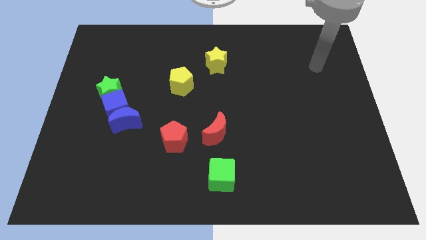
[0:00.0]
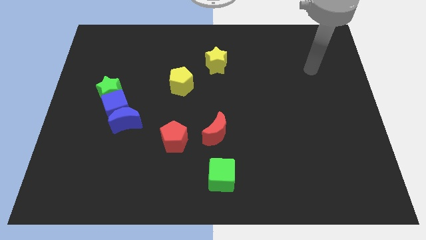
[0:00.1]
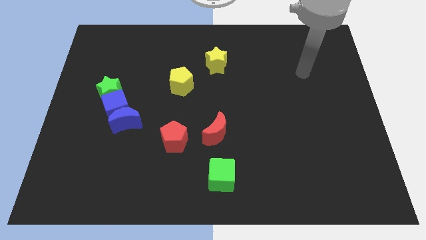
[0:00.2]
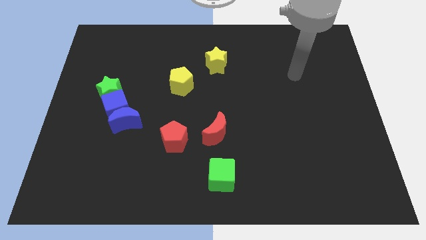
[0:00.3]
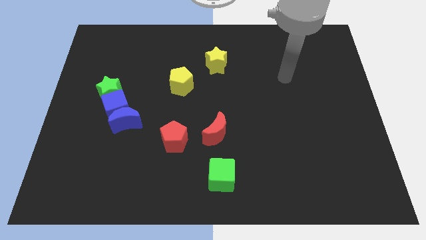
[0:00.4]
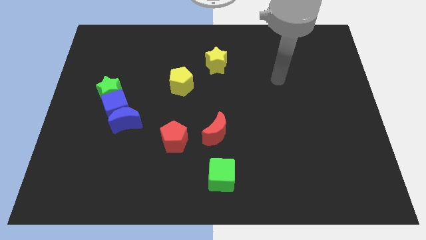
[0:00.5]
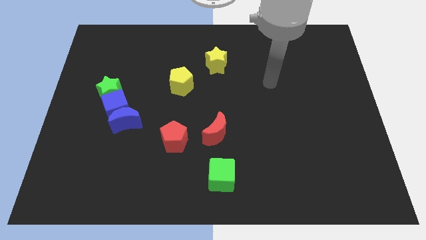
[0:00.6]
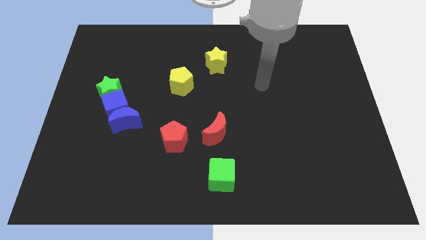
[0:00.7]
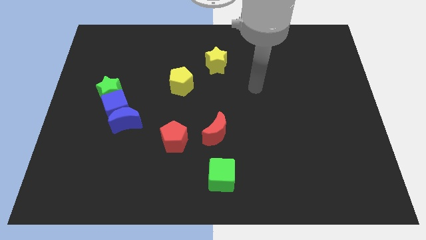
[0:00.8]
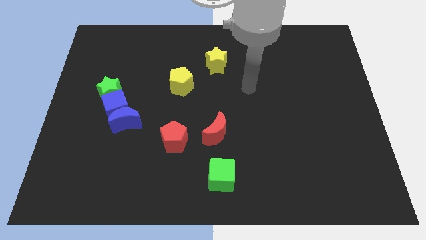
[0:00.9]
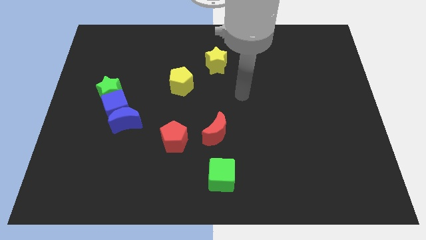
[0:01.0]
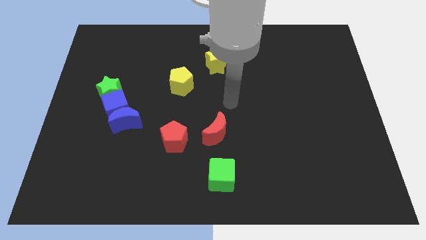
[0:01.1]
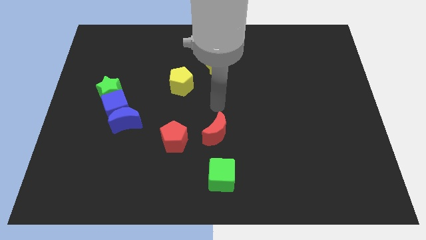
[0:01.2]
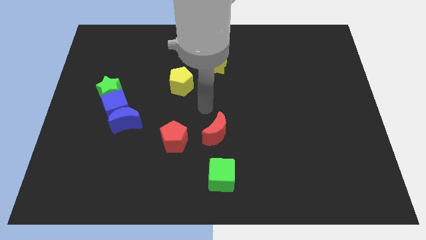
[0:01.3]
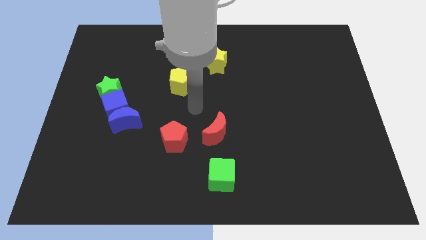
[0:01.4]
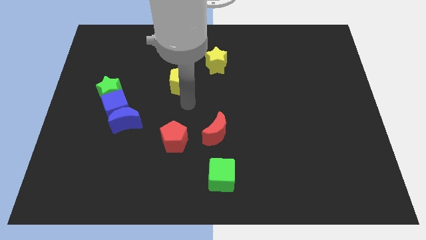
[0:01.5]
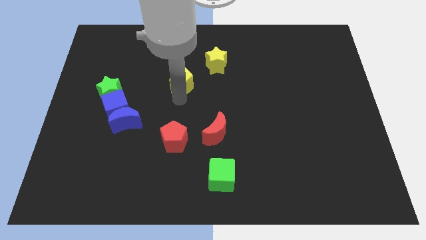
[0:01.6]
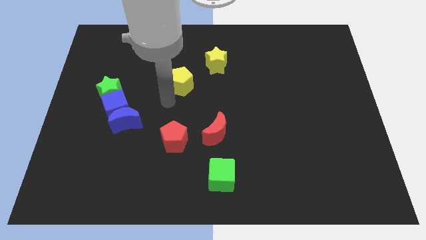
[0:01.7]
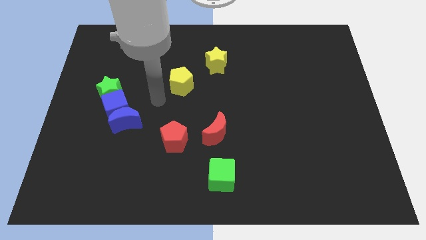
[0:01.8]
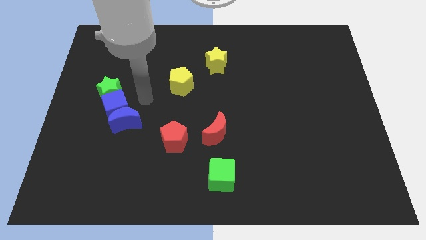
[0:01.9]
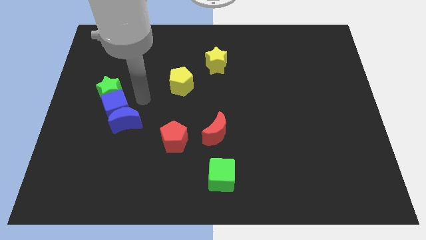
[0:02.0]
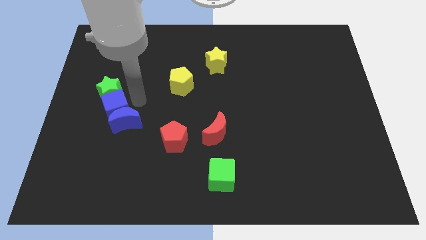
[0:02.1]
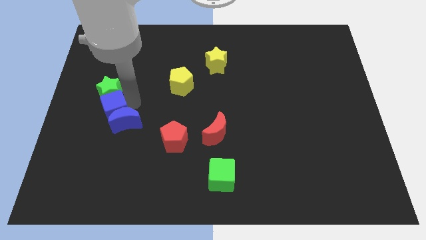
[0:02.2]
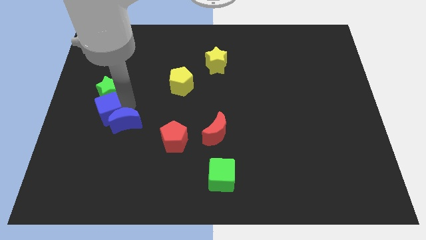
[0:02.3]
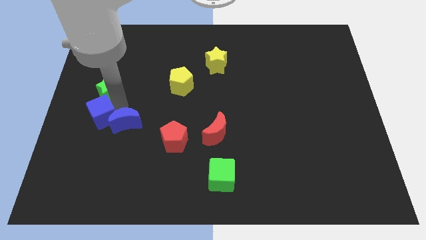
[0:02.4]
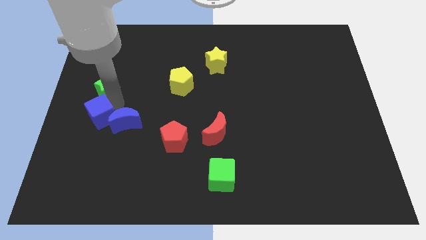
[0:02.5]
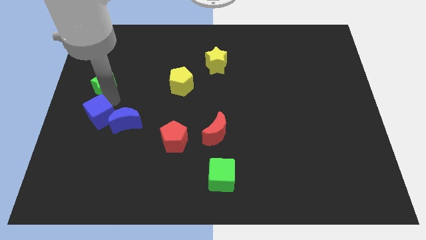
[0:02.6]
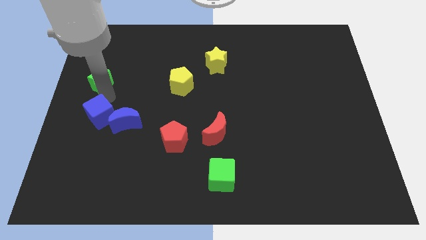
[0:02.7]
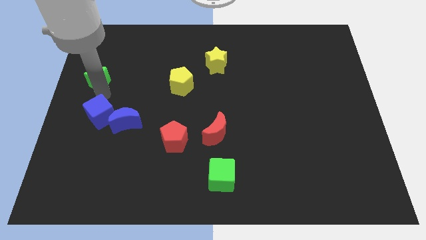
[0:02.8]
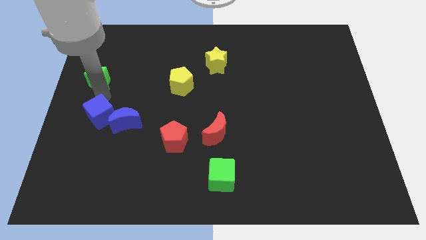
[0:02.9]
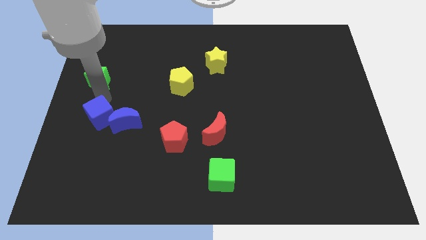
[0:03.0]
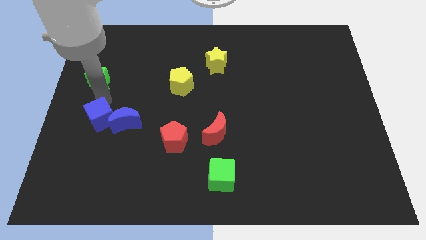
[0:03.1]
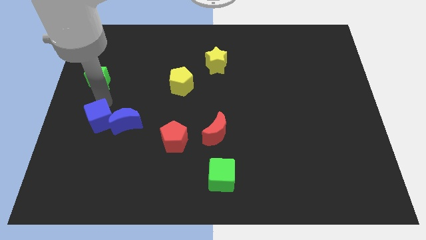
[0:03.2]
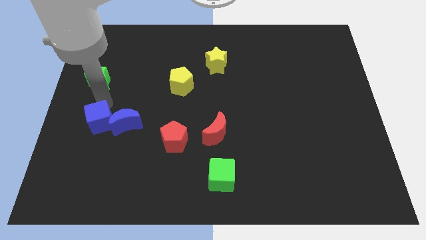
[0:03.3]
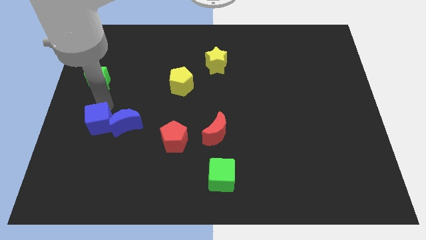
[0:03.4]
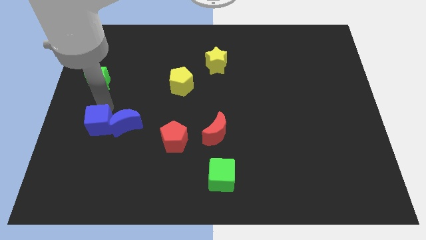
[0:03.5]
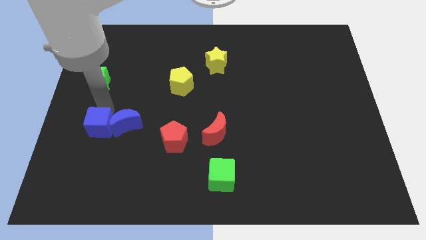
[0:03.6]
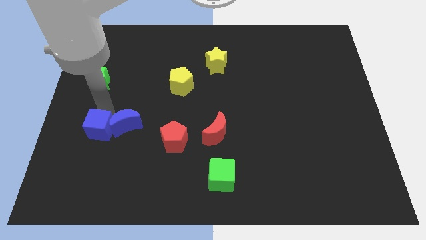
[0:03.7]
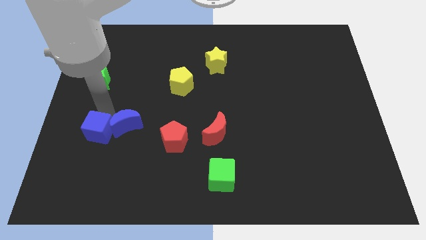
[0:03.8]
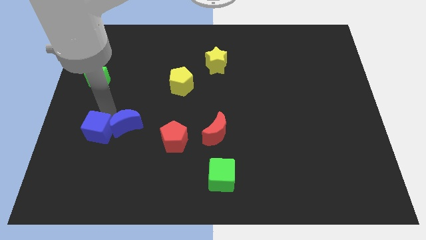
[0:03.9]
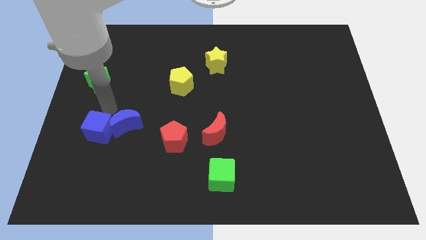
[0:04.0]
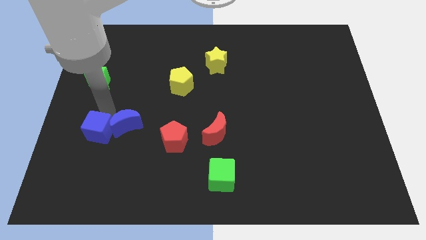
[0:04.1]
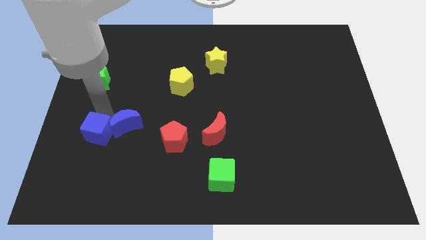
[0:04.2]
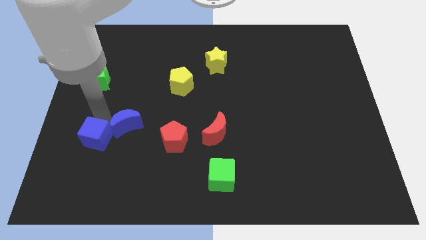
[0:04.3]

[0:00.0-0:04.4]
pull the blue cube apart from the blue moon and green star

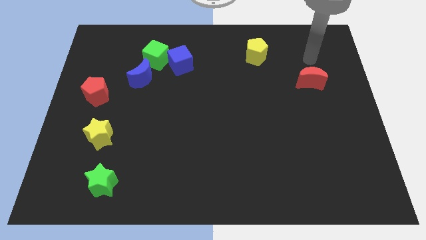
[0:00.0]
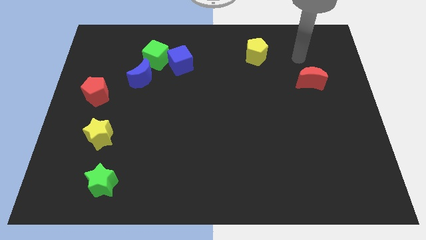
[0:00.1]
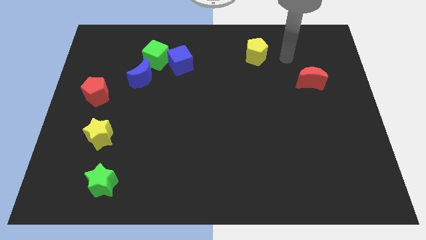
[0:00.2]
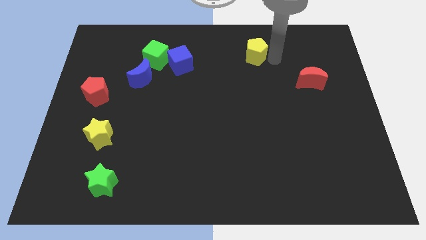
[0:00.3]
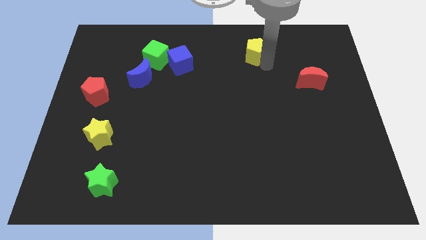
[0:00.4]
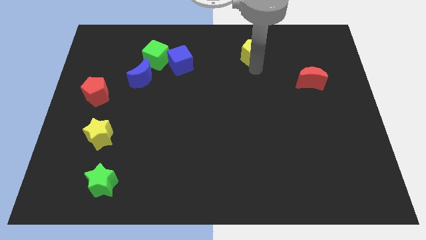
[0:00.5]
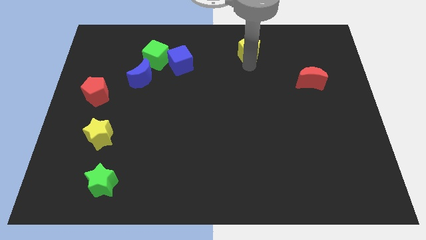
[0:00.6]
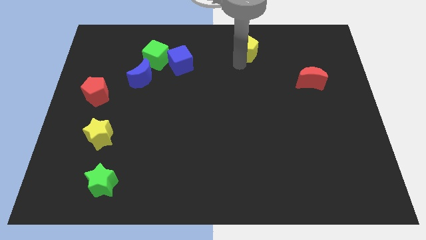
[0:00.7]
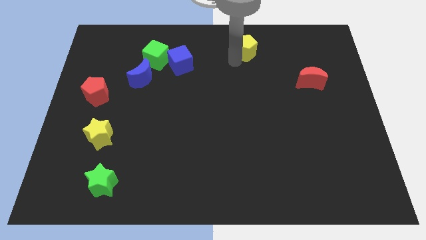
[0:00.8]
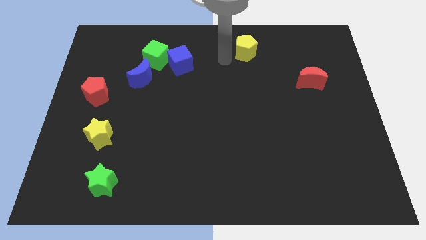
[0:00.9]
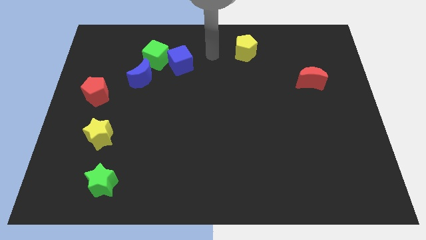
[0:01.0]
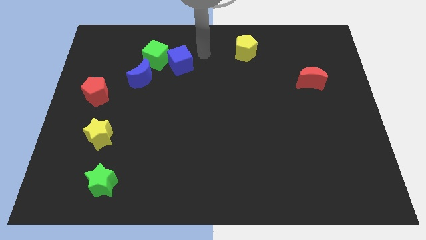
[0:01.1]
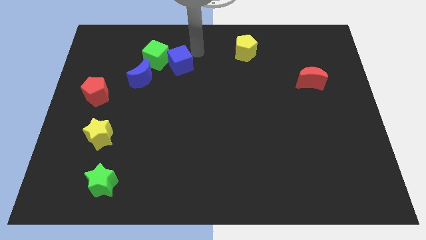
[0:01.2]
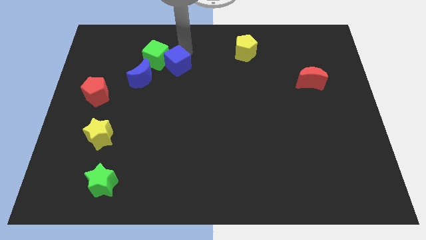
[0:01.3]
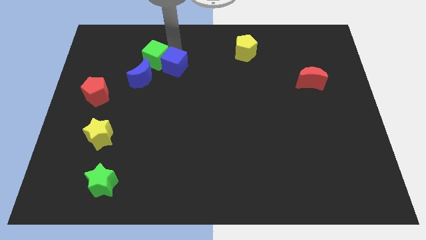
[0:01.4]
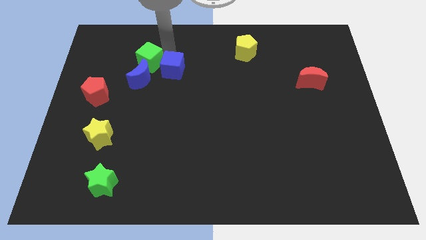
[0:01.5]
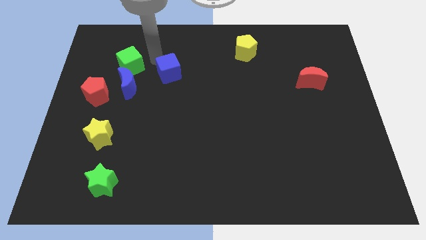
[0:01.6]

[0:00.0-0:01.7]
separate the blue cube from the green cube

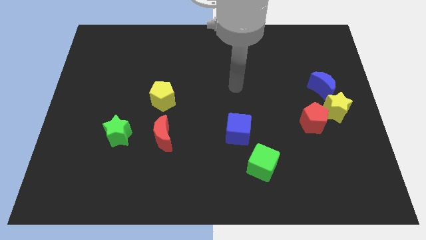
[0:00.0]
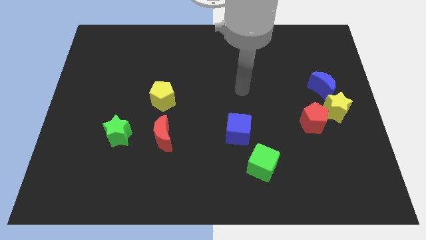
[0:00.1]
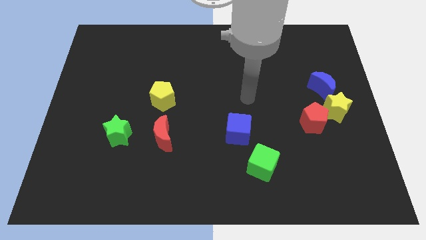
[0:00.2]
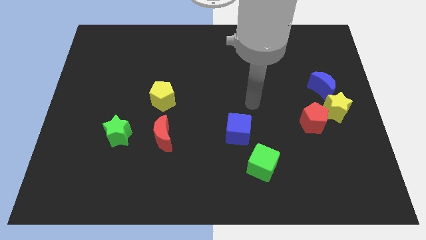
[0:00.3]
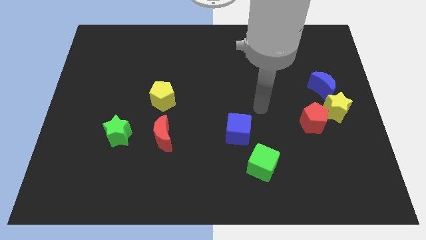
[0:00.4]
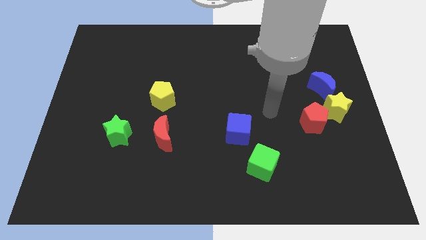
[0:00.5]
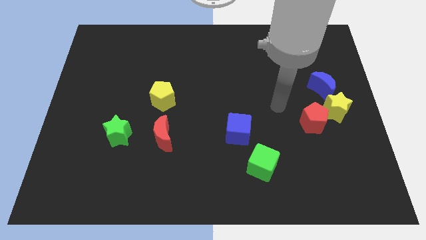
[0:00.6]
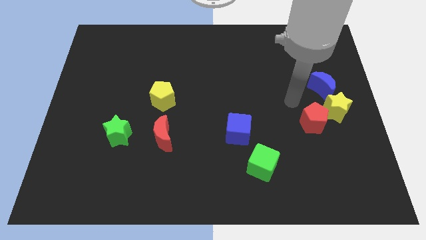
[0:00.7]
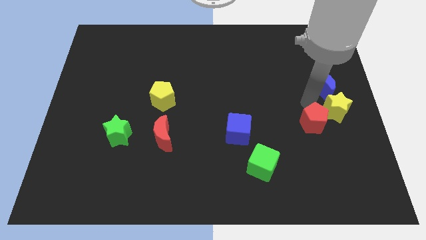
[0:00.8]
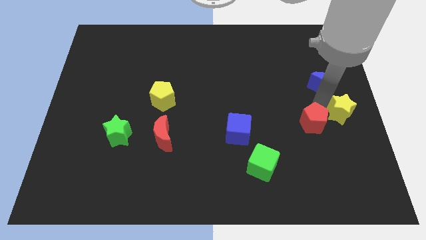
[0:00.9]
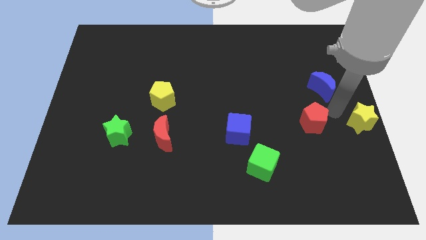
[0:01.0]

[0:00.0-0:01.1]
separate the red pentagon from the yellow star

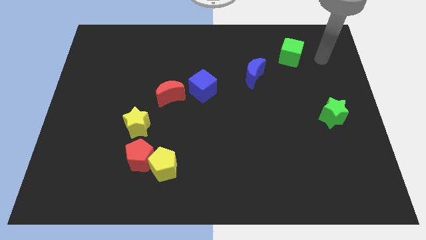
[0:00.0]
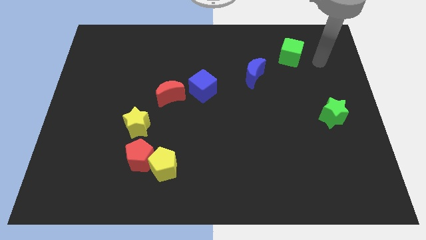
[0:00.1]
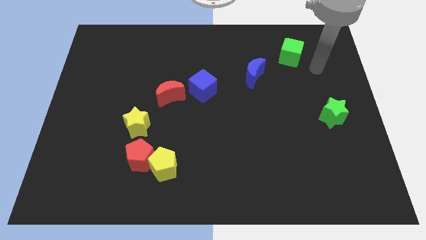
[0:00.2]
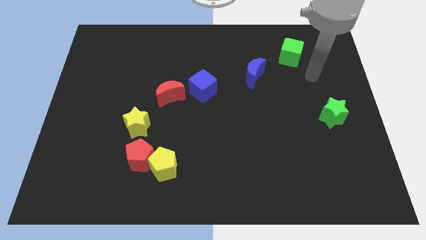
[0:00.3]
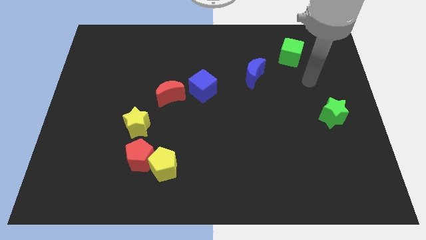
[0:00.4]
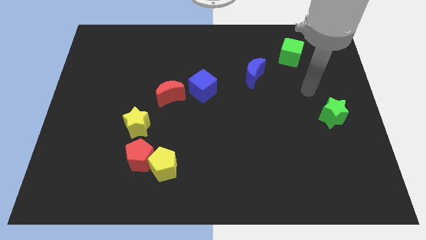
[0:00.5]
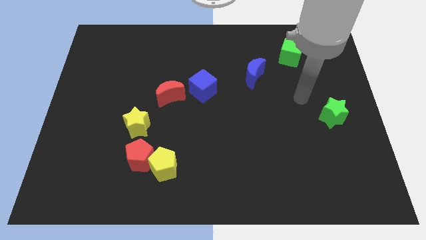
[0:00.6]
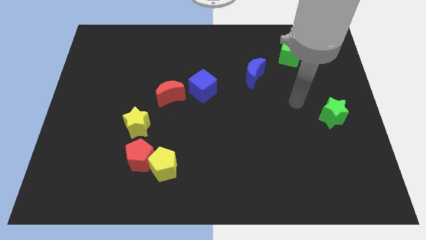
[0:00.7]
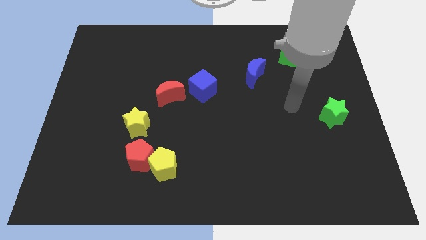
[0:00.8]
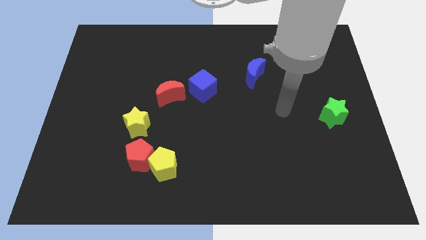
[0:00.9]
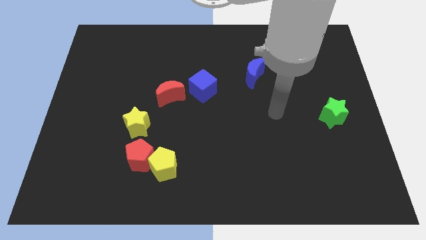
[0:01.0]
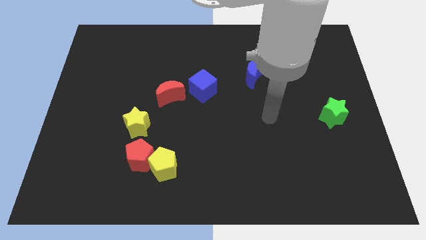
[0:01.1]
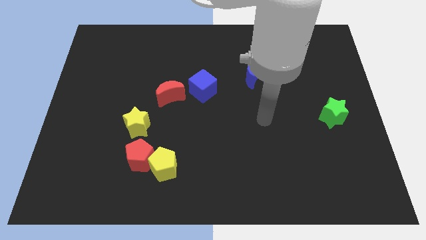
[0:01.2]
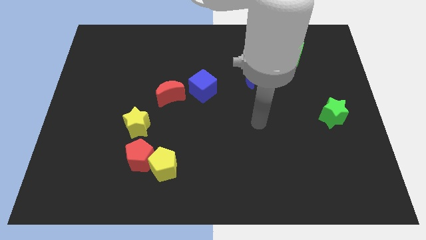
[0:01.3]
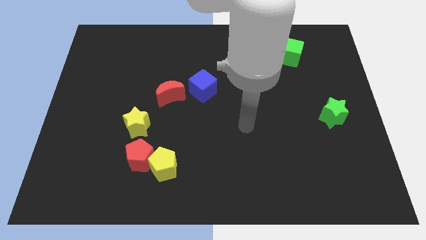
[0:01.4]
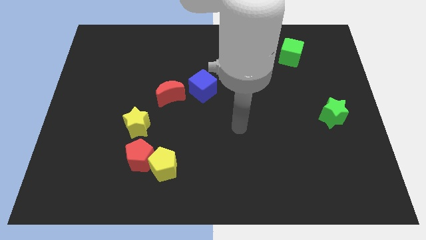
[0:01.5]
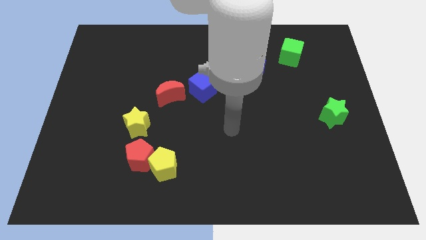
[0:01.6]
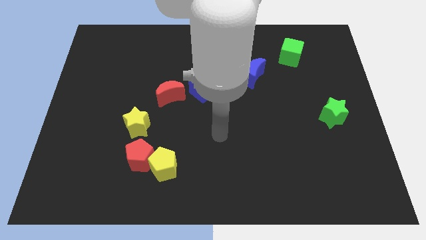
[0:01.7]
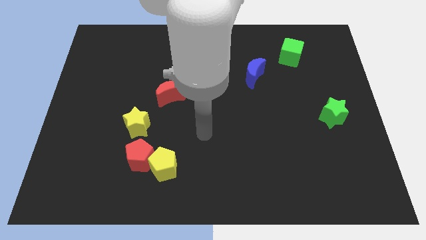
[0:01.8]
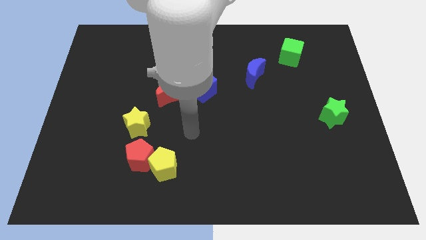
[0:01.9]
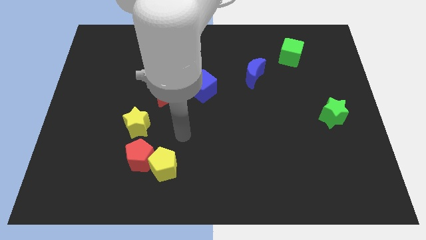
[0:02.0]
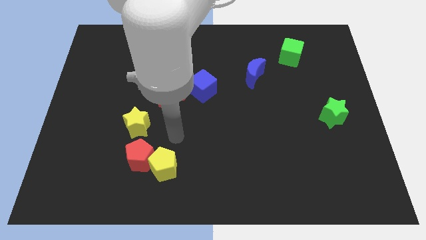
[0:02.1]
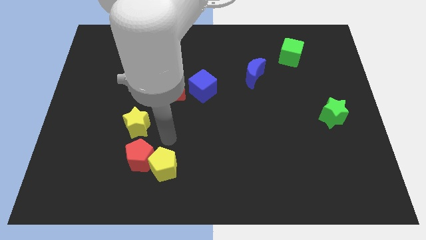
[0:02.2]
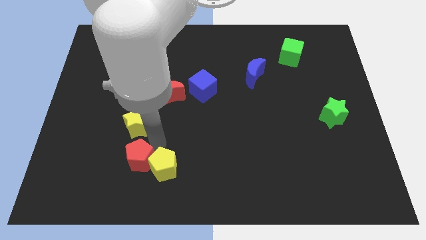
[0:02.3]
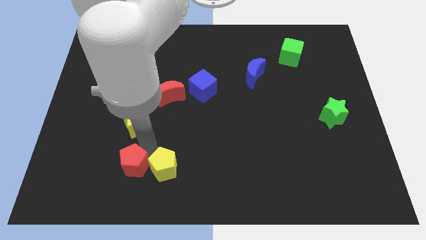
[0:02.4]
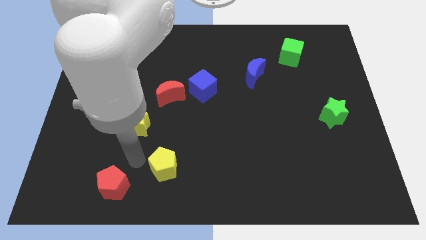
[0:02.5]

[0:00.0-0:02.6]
pull the yellow pentagon apart from the red pentagon
